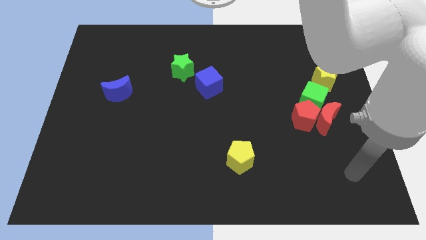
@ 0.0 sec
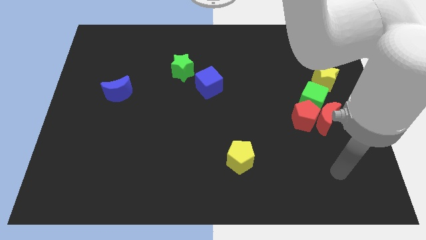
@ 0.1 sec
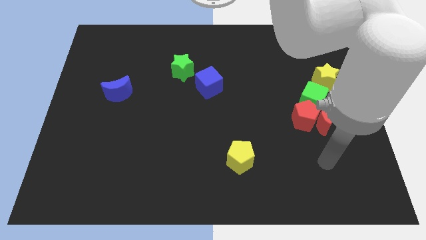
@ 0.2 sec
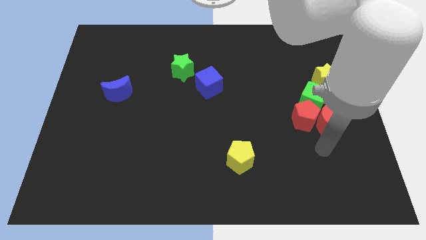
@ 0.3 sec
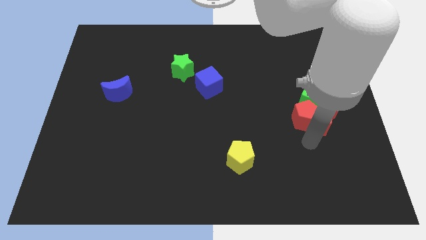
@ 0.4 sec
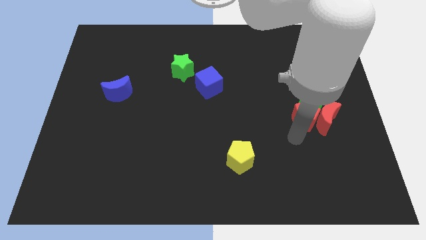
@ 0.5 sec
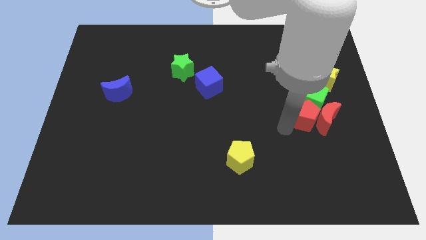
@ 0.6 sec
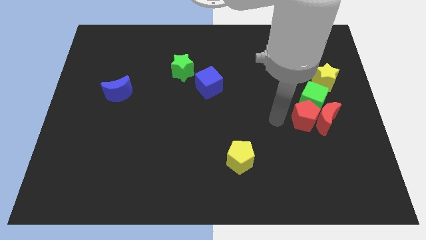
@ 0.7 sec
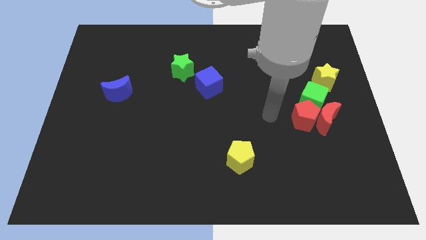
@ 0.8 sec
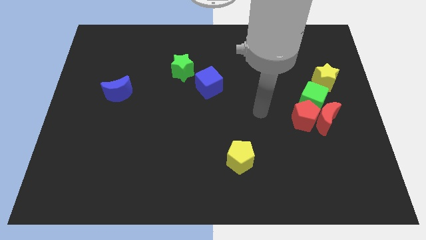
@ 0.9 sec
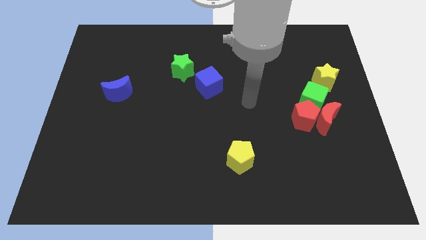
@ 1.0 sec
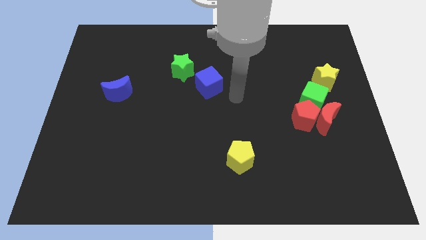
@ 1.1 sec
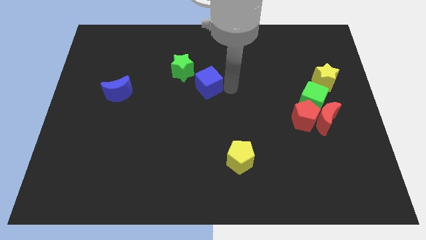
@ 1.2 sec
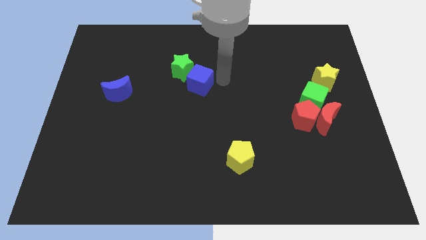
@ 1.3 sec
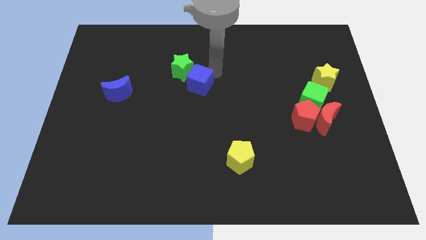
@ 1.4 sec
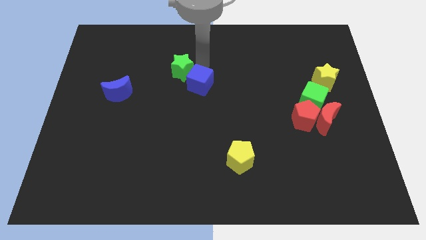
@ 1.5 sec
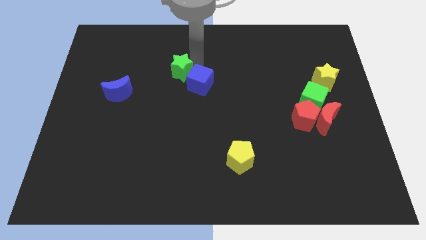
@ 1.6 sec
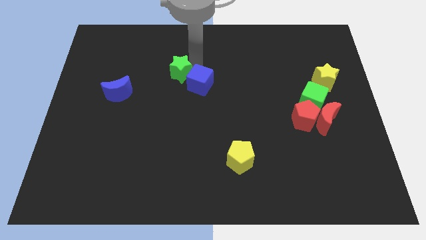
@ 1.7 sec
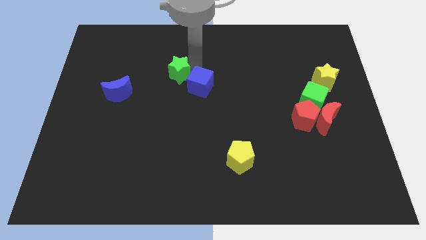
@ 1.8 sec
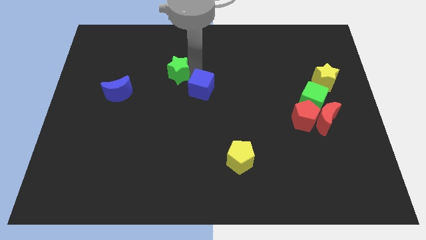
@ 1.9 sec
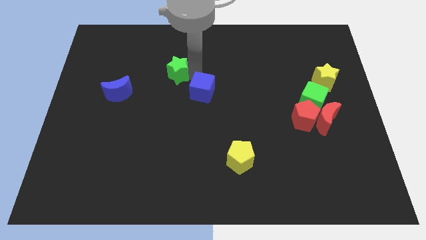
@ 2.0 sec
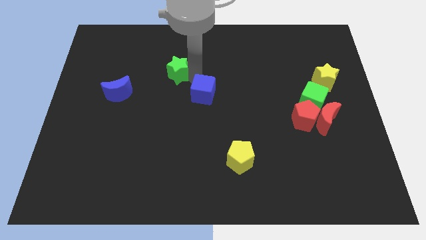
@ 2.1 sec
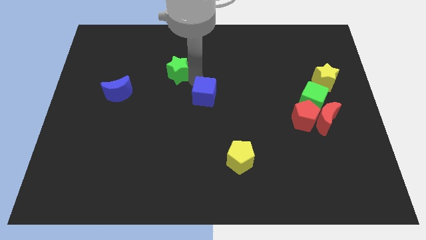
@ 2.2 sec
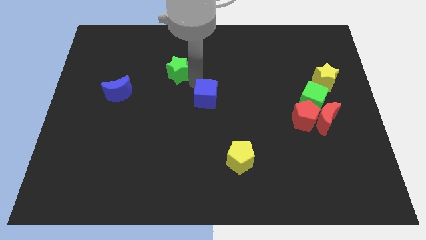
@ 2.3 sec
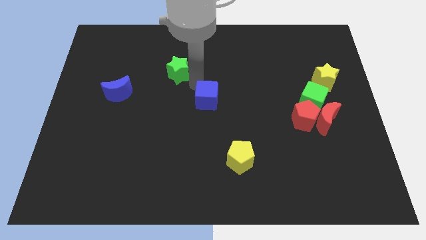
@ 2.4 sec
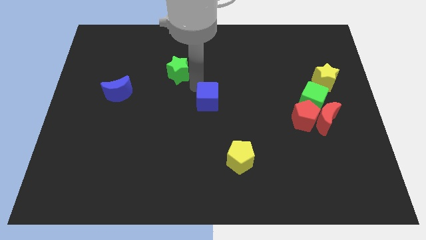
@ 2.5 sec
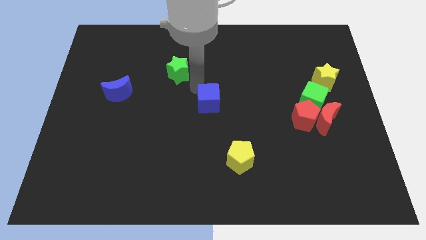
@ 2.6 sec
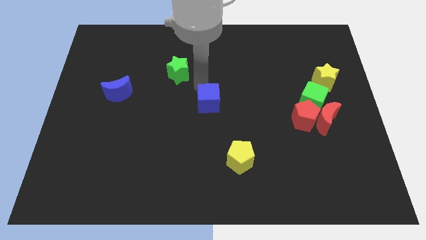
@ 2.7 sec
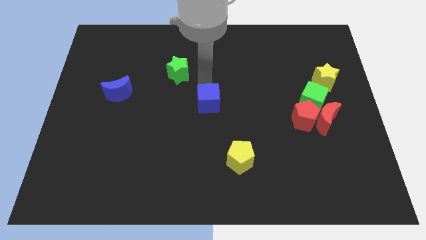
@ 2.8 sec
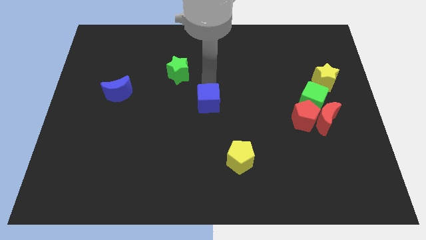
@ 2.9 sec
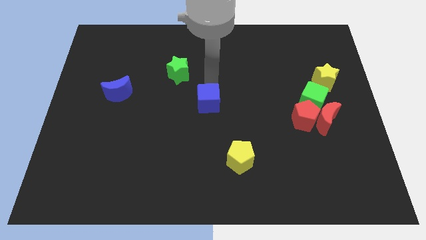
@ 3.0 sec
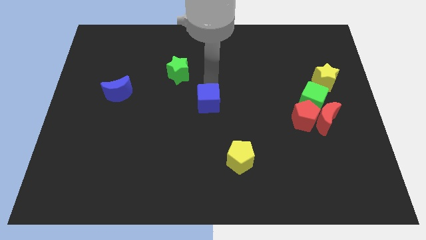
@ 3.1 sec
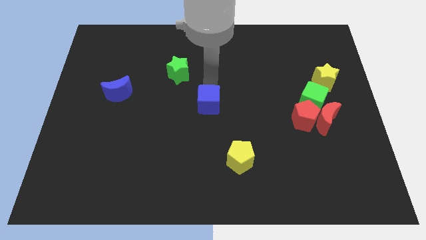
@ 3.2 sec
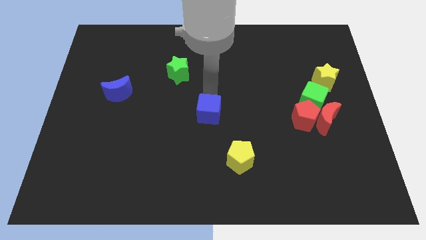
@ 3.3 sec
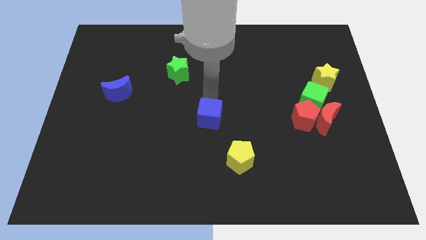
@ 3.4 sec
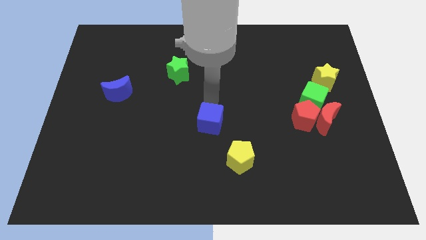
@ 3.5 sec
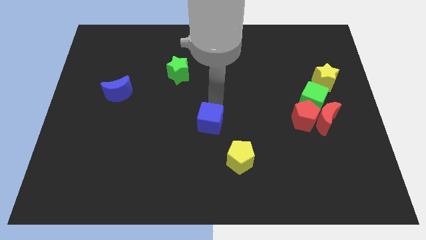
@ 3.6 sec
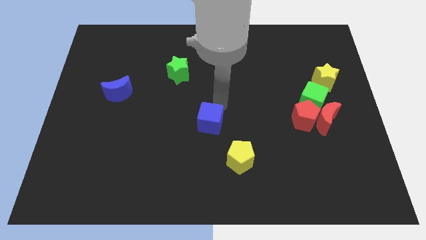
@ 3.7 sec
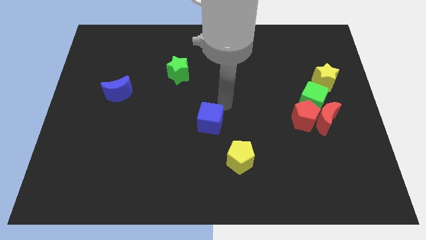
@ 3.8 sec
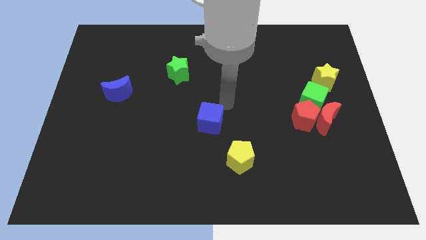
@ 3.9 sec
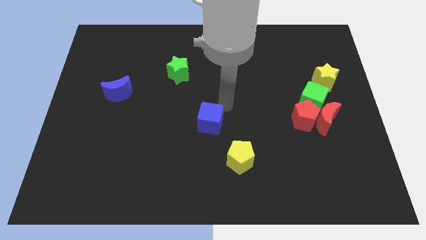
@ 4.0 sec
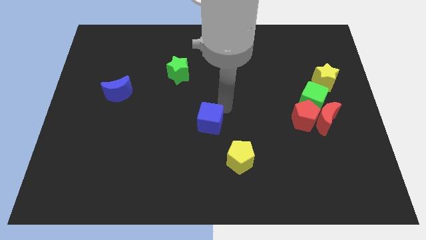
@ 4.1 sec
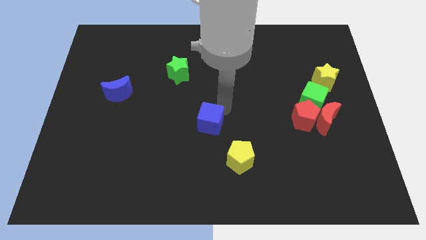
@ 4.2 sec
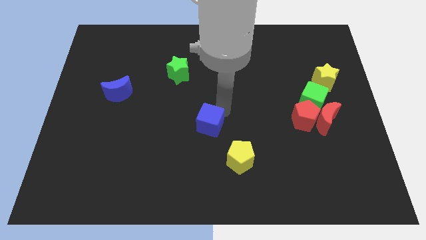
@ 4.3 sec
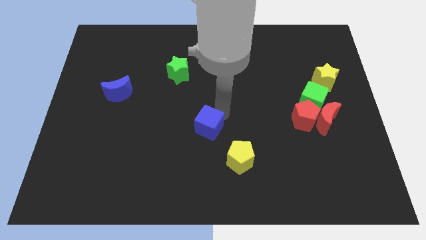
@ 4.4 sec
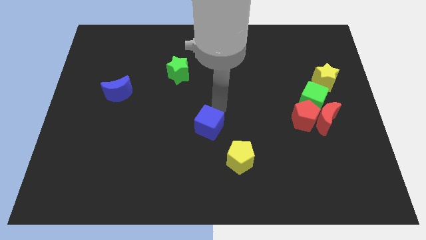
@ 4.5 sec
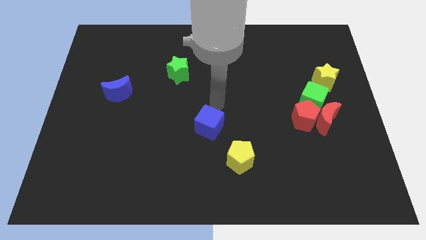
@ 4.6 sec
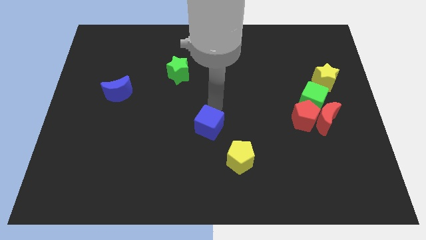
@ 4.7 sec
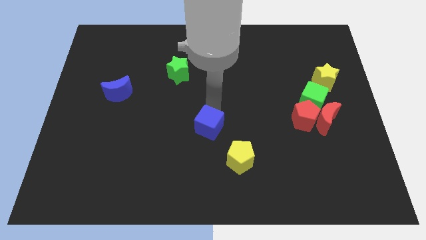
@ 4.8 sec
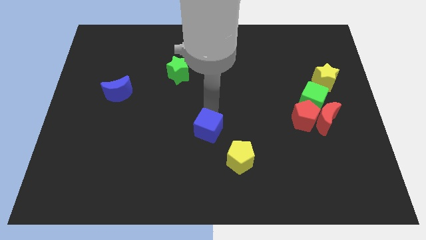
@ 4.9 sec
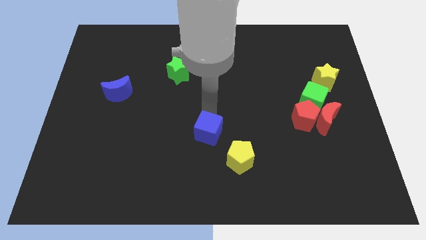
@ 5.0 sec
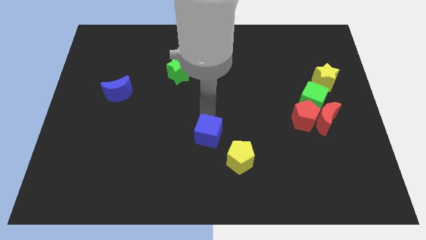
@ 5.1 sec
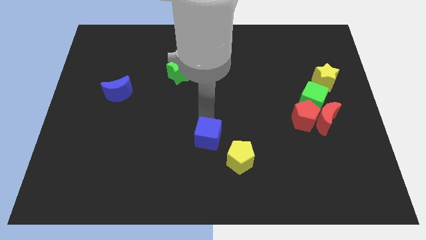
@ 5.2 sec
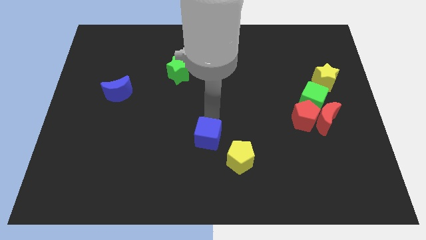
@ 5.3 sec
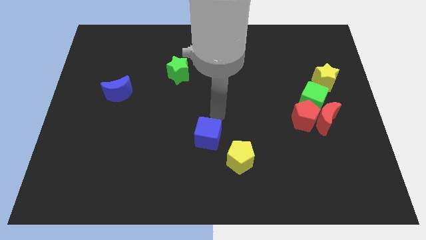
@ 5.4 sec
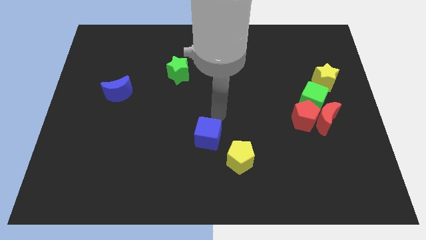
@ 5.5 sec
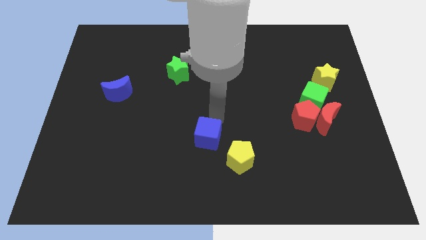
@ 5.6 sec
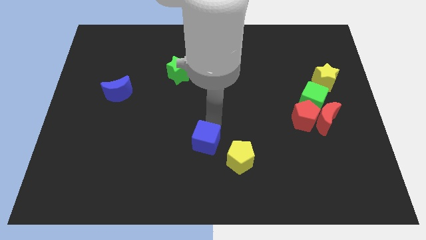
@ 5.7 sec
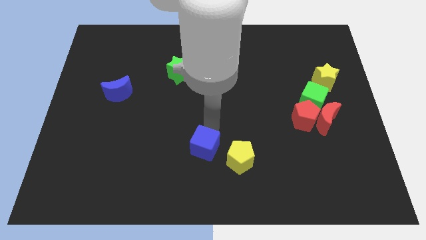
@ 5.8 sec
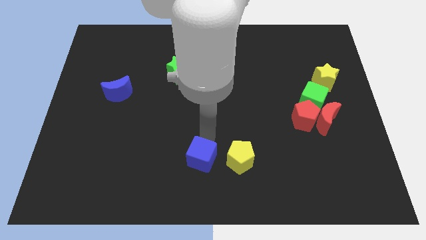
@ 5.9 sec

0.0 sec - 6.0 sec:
put the blue cube to the bottom
